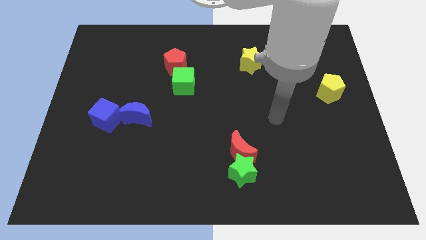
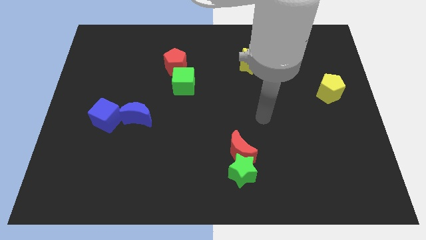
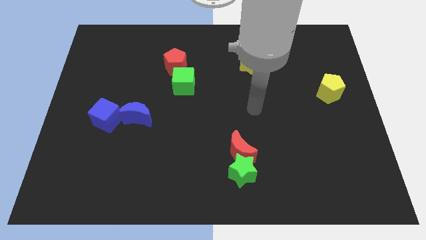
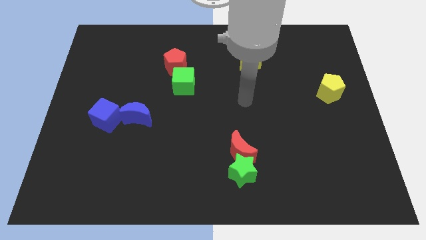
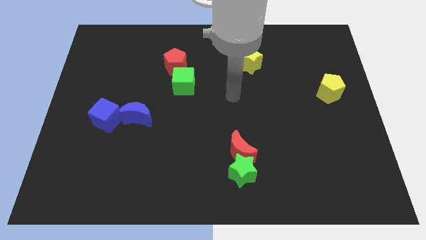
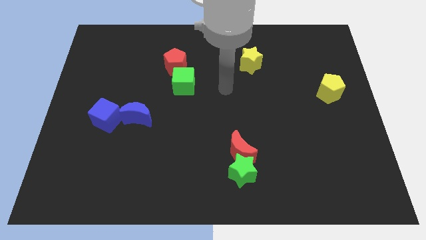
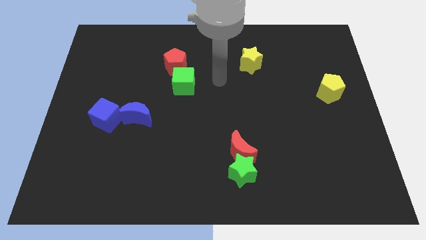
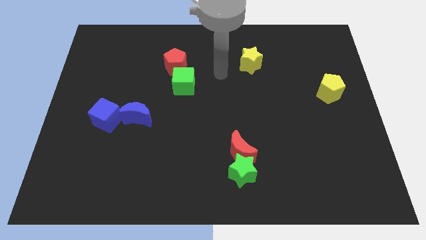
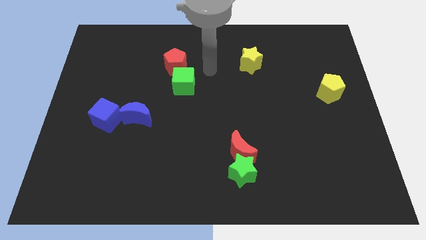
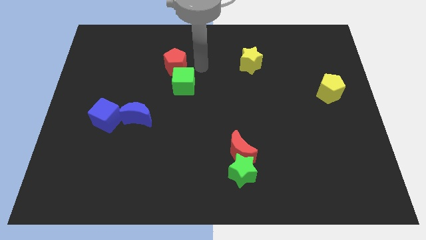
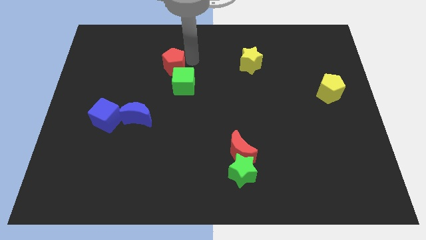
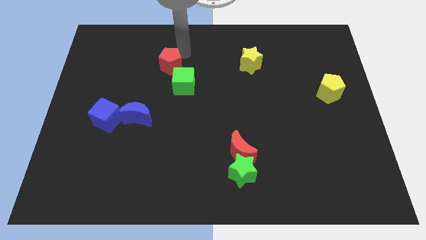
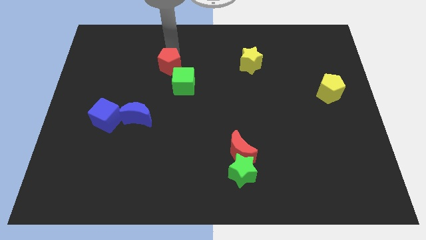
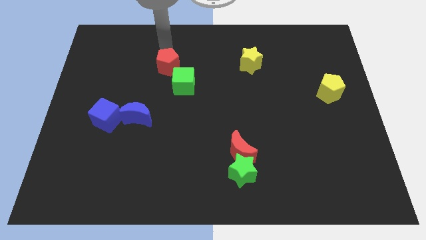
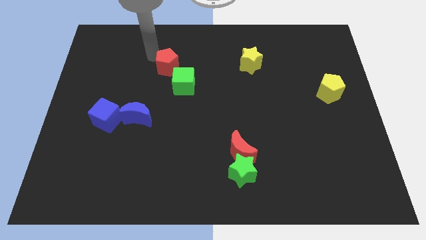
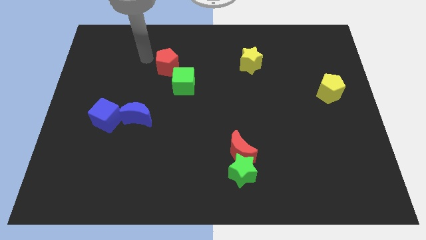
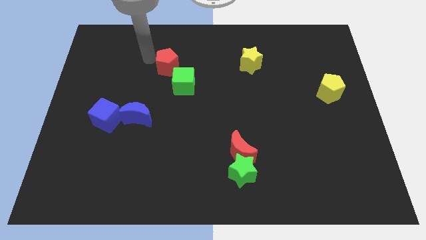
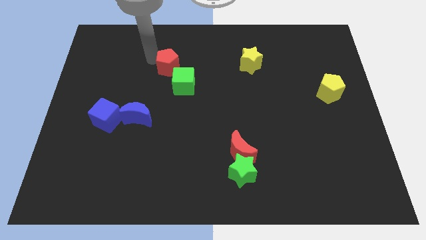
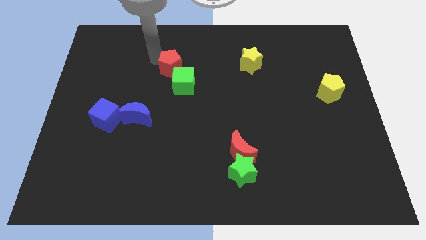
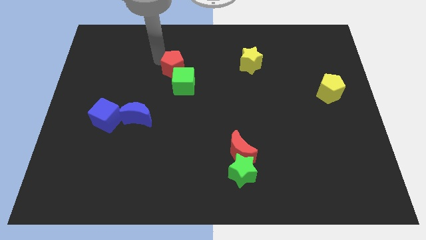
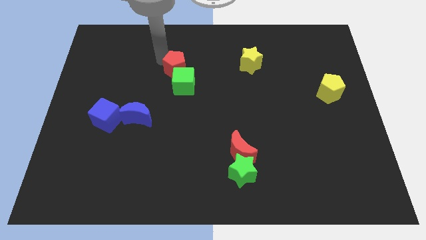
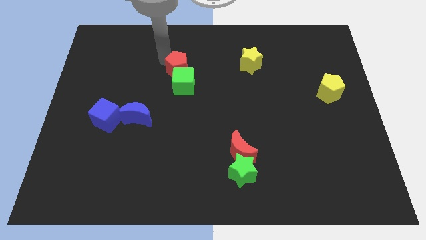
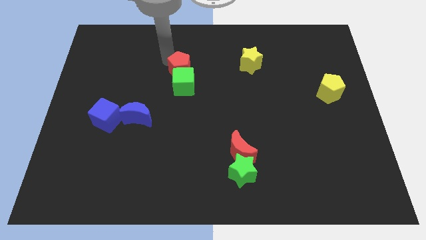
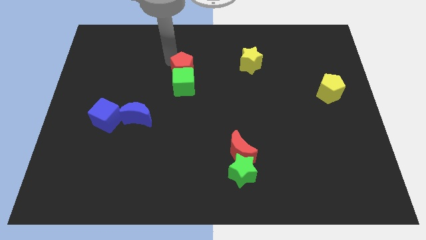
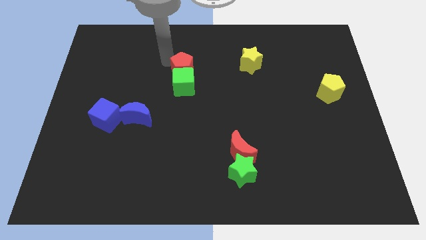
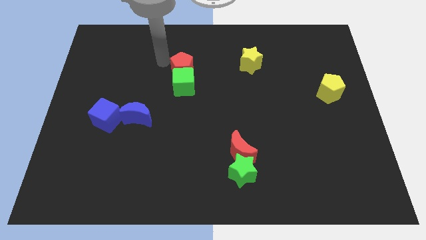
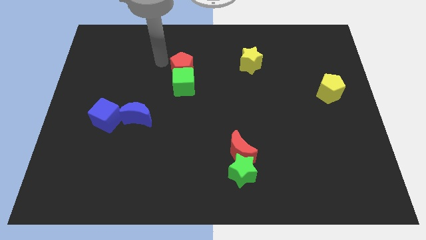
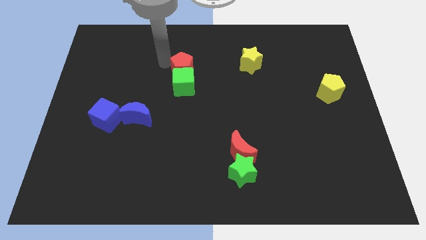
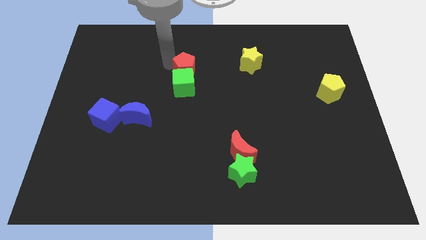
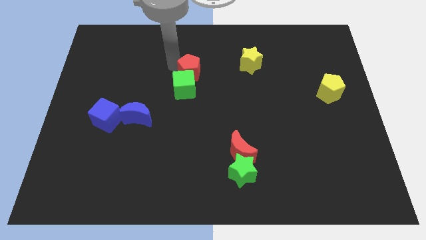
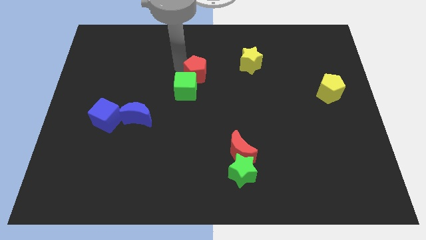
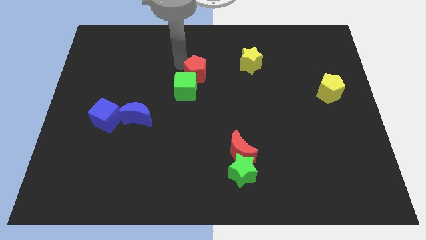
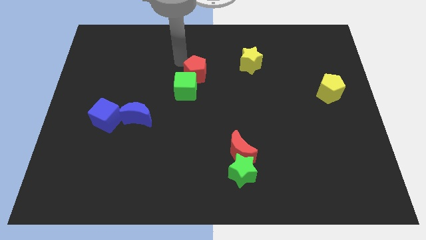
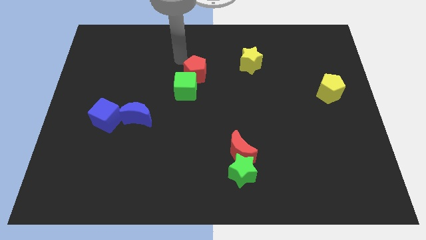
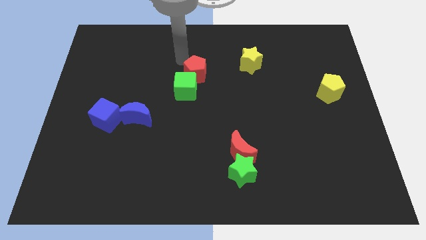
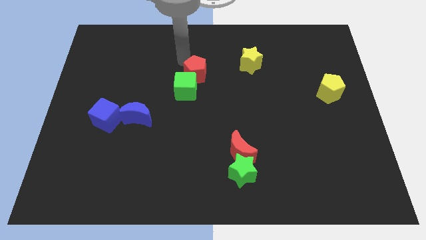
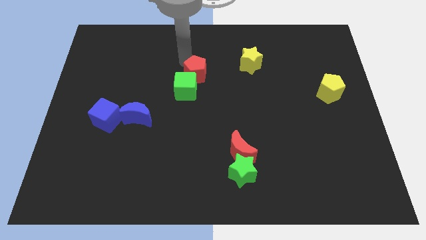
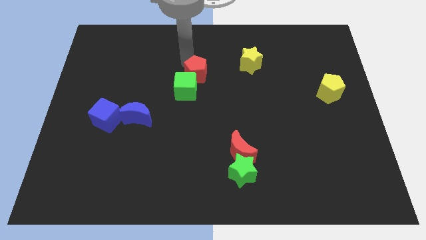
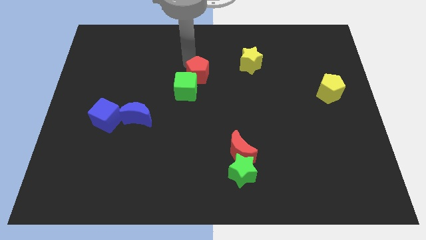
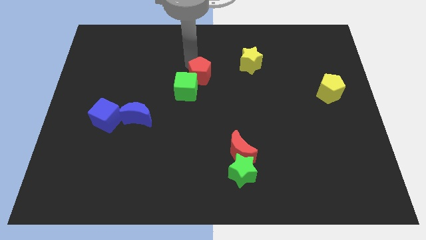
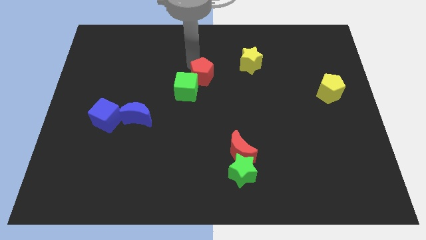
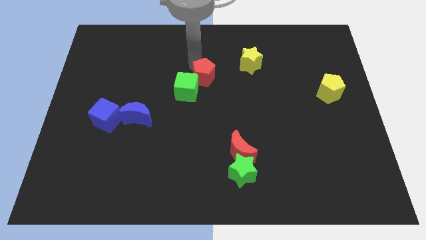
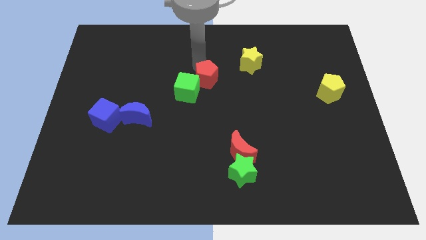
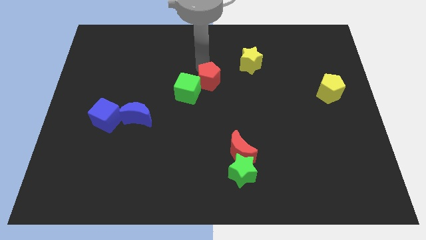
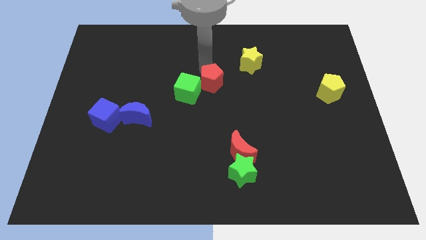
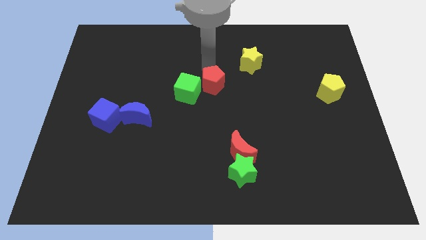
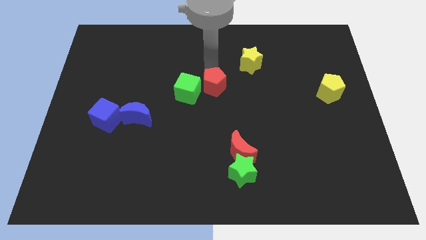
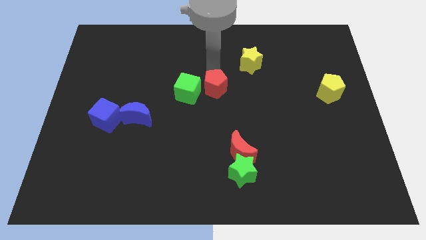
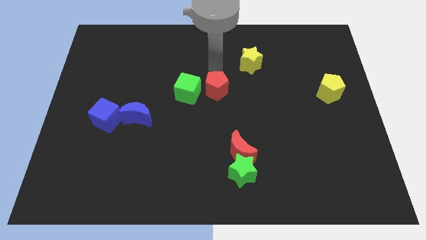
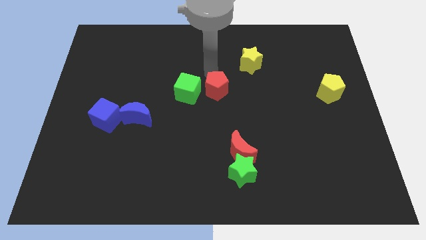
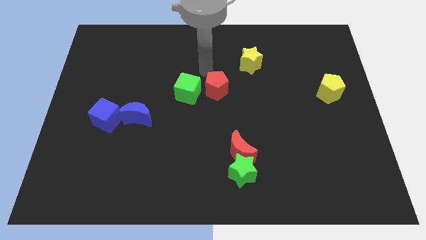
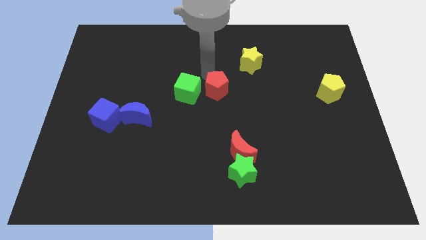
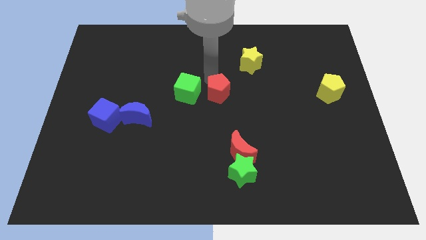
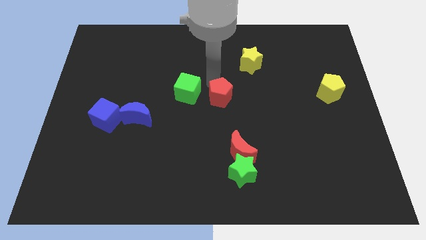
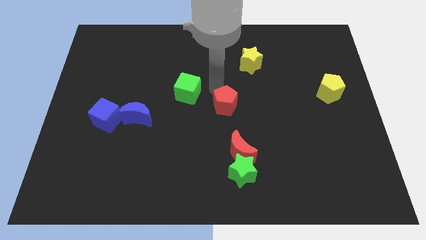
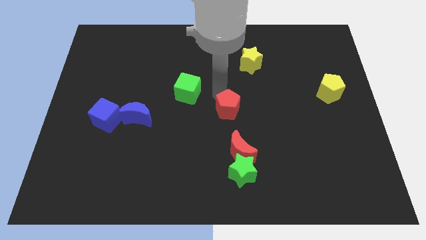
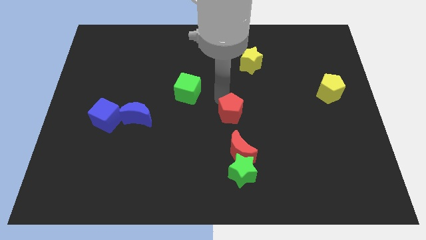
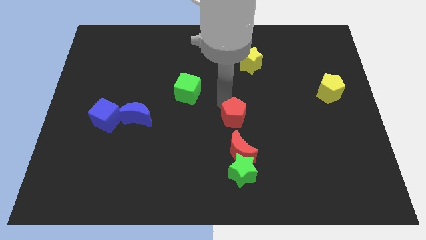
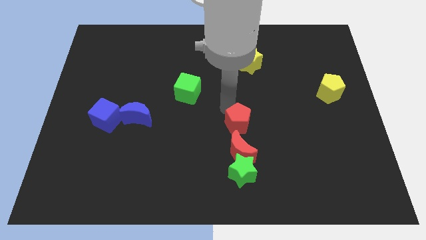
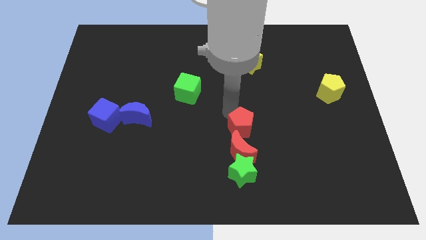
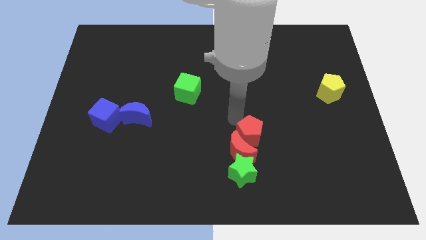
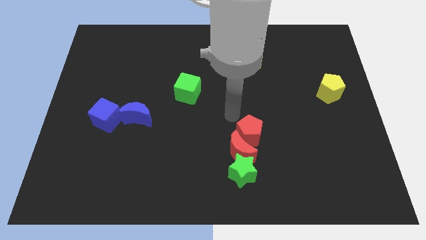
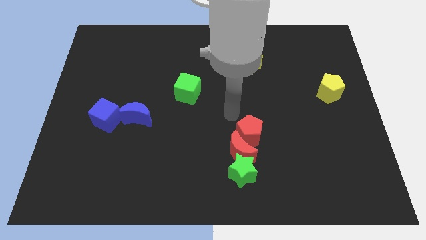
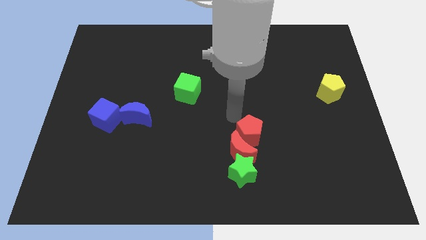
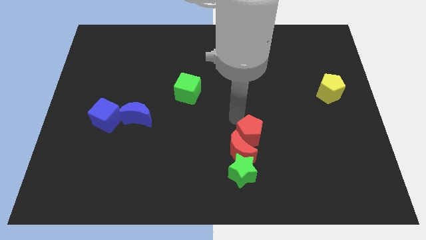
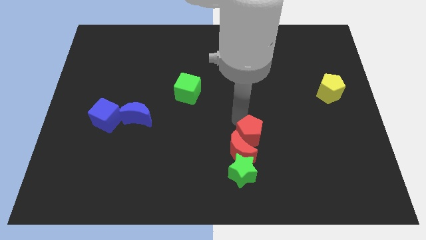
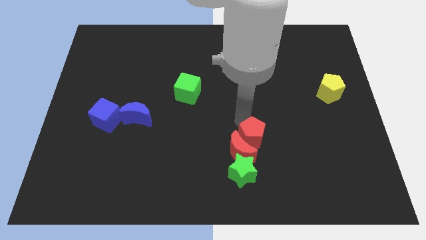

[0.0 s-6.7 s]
slide the red pentagon diagonally up and to the right of the green star
